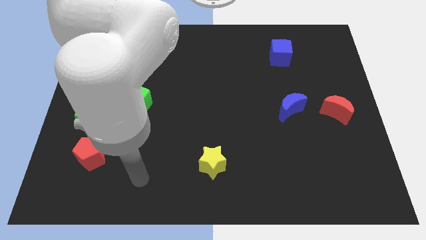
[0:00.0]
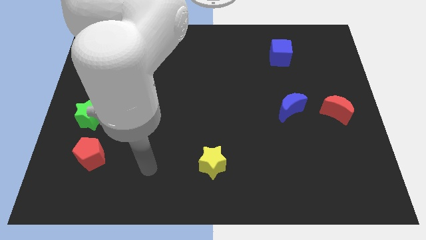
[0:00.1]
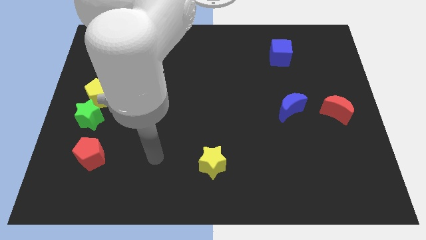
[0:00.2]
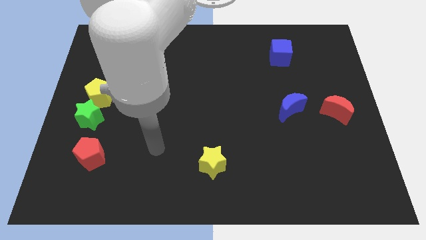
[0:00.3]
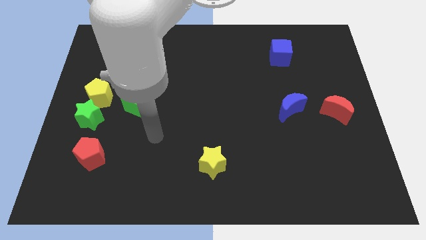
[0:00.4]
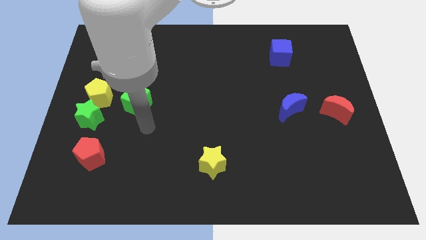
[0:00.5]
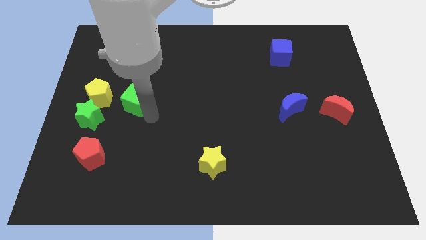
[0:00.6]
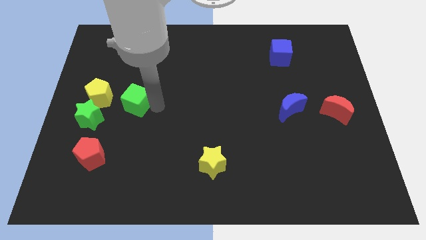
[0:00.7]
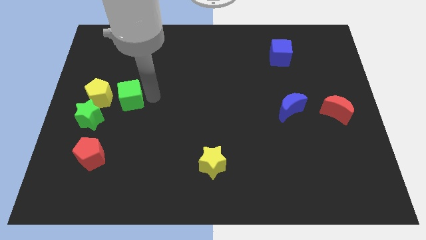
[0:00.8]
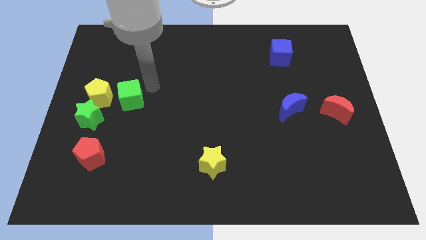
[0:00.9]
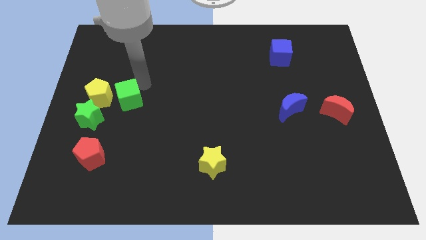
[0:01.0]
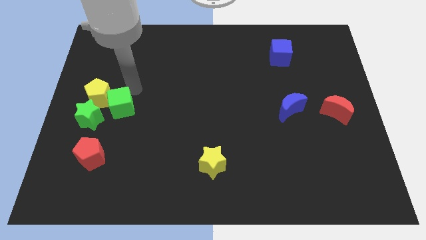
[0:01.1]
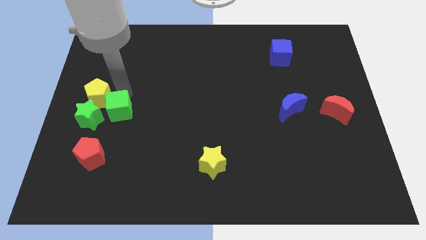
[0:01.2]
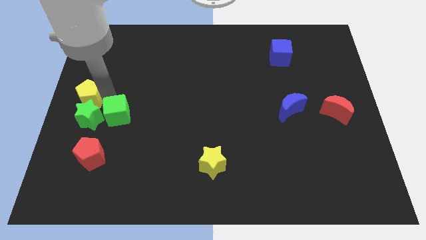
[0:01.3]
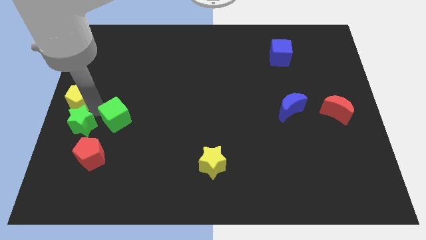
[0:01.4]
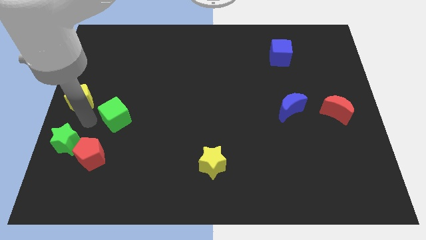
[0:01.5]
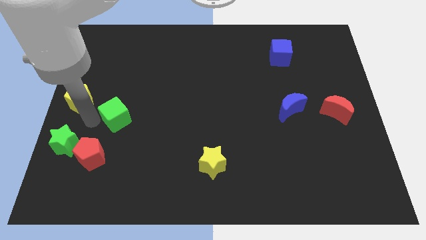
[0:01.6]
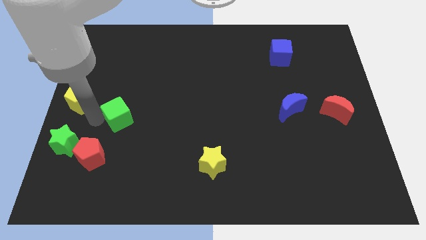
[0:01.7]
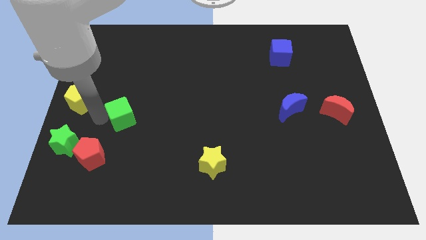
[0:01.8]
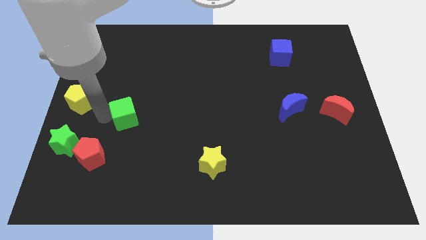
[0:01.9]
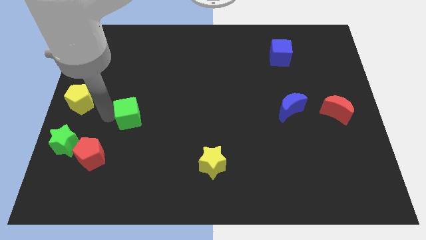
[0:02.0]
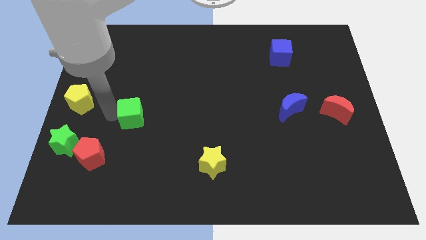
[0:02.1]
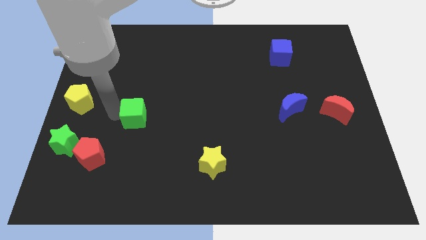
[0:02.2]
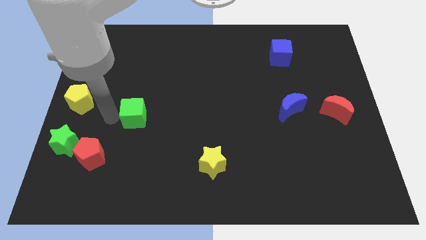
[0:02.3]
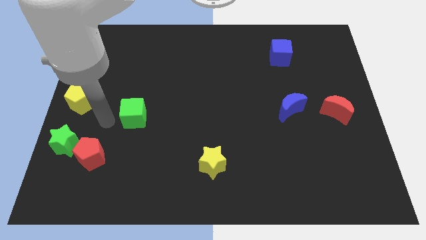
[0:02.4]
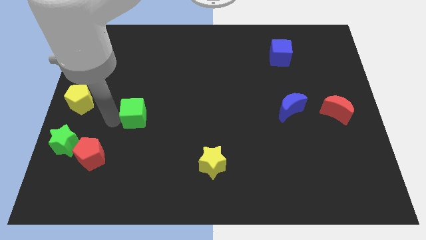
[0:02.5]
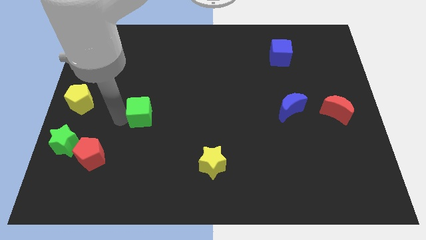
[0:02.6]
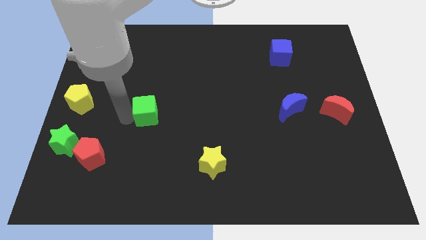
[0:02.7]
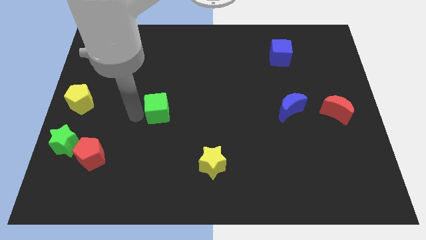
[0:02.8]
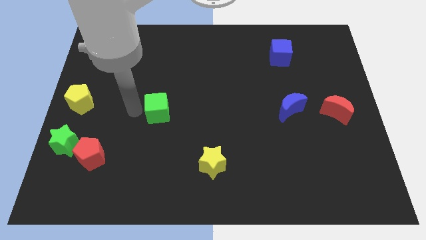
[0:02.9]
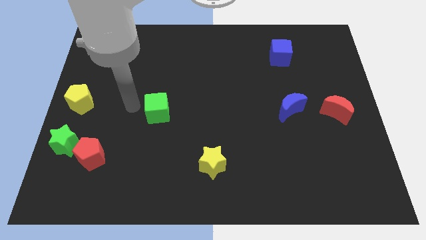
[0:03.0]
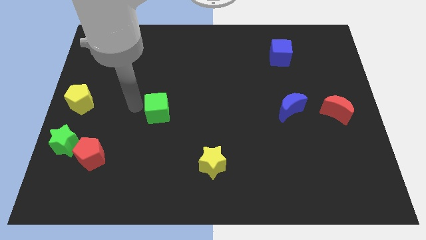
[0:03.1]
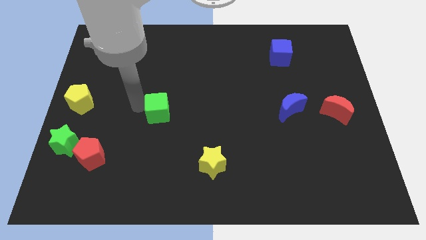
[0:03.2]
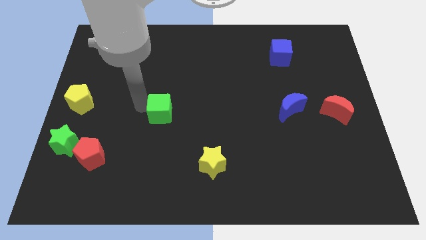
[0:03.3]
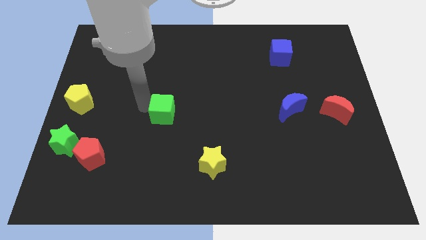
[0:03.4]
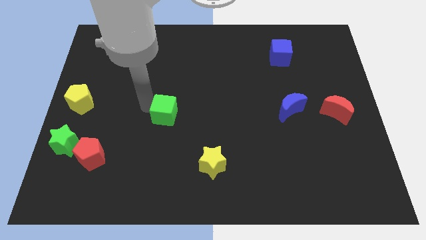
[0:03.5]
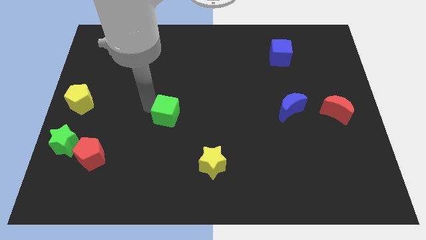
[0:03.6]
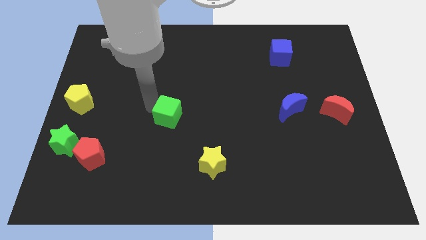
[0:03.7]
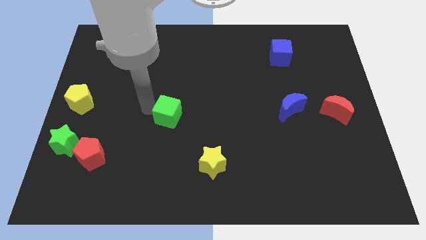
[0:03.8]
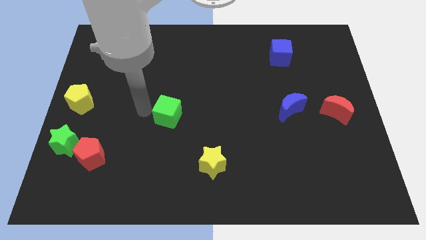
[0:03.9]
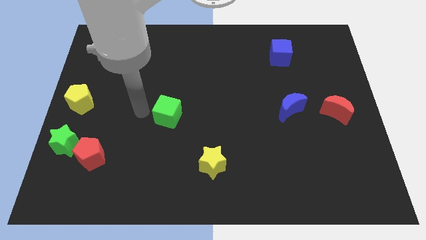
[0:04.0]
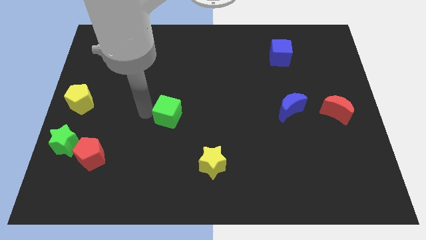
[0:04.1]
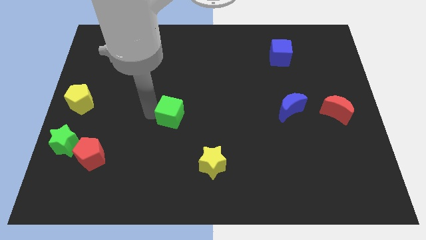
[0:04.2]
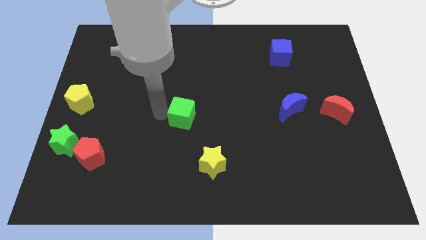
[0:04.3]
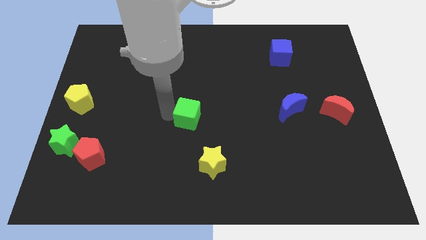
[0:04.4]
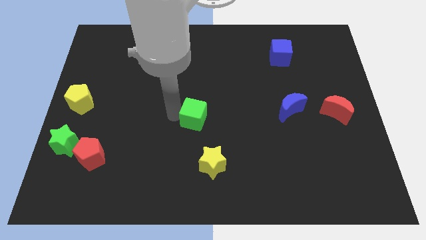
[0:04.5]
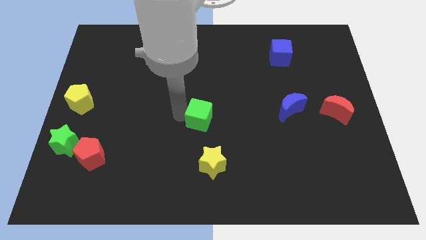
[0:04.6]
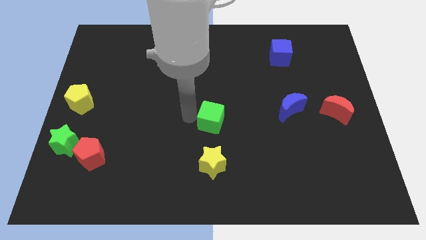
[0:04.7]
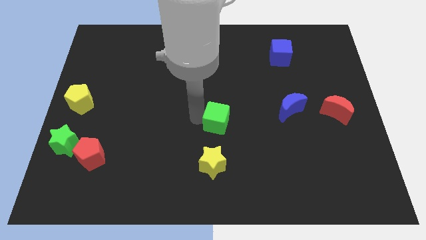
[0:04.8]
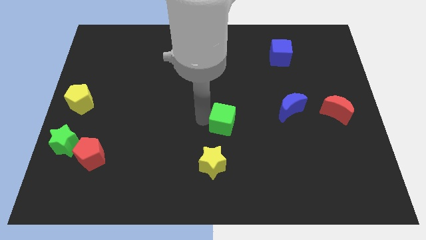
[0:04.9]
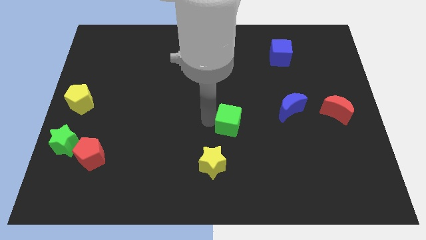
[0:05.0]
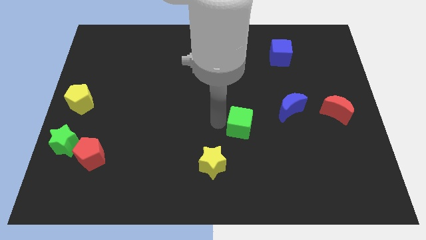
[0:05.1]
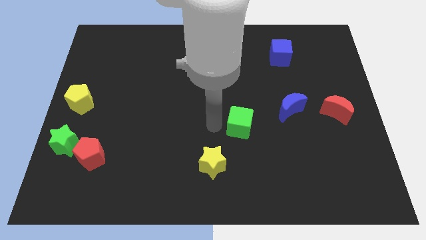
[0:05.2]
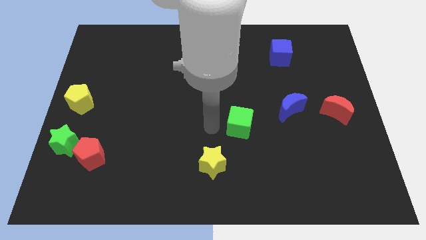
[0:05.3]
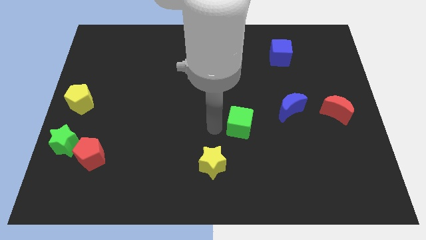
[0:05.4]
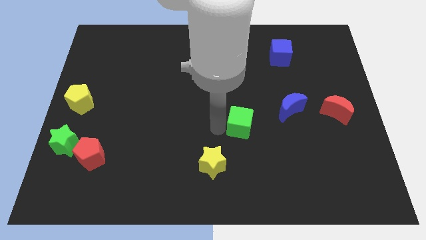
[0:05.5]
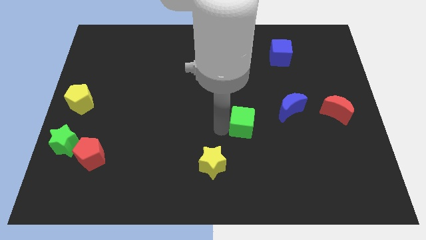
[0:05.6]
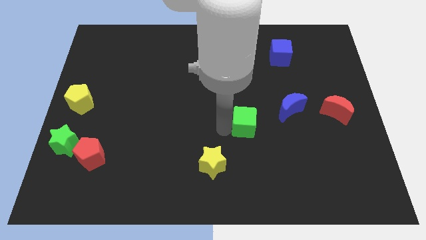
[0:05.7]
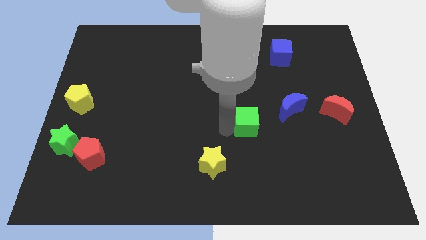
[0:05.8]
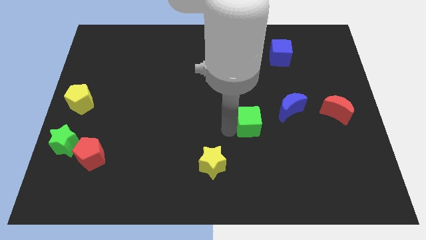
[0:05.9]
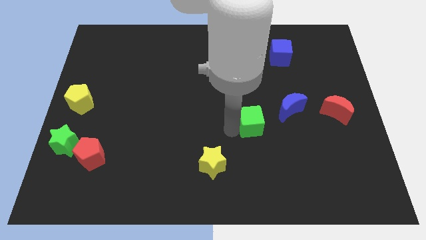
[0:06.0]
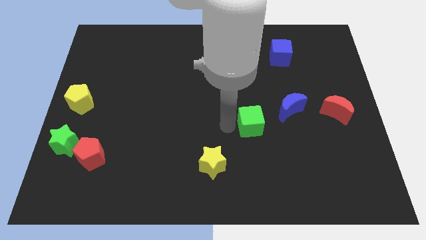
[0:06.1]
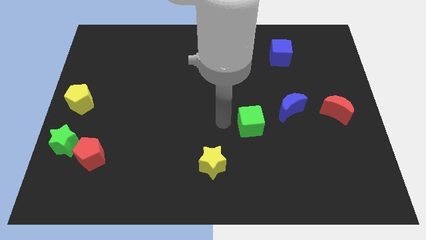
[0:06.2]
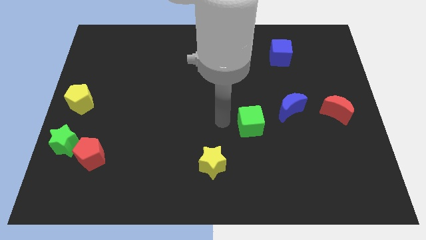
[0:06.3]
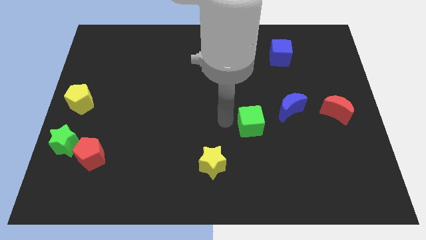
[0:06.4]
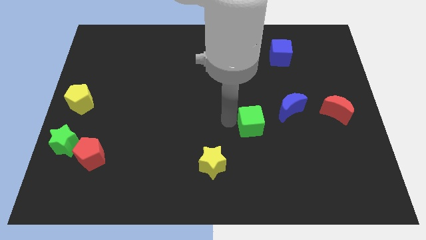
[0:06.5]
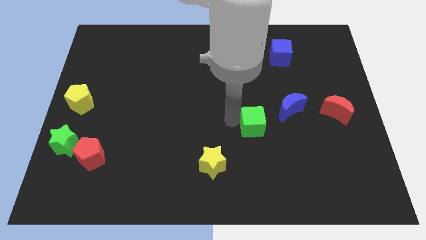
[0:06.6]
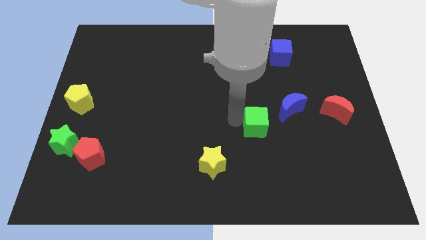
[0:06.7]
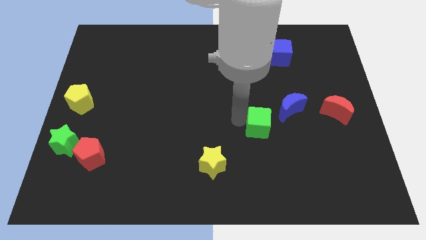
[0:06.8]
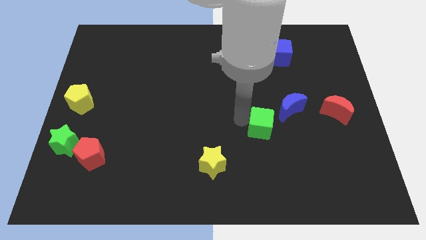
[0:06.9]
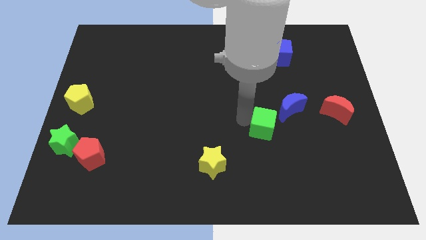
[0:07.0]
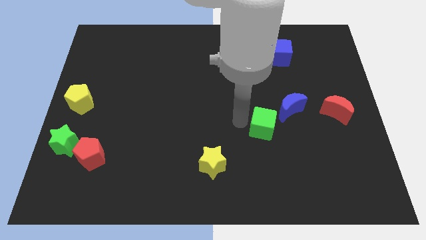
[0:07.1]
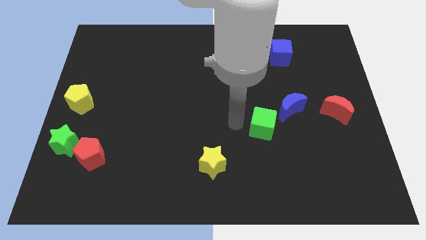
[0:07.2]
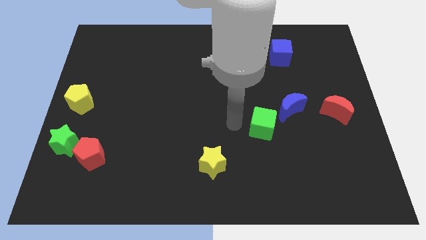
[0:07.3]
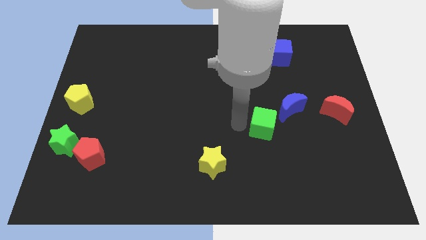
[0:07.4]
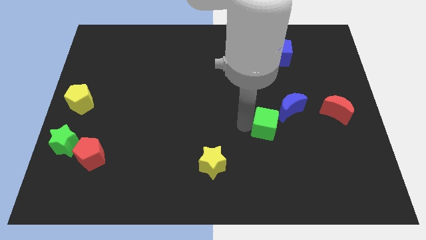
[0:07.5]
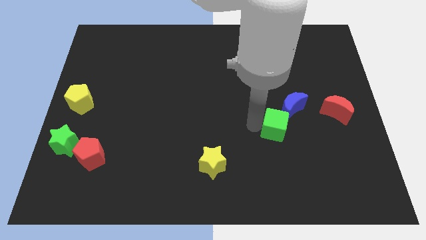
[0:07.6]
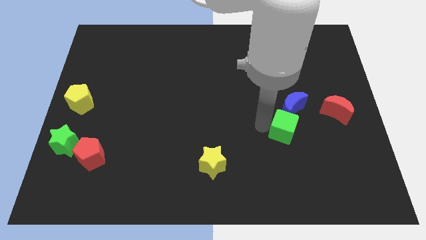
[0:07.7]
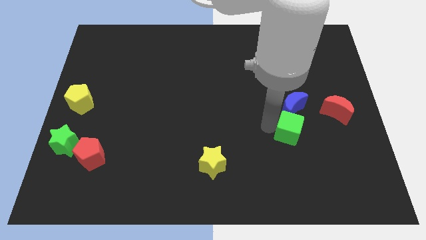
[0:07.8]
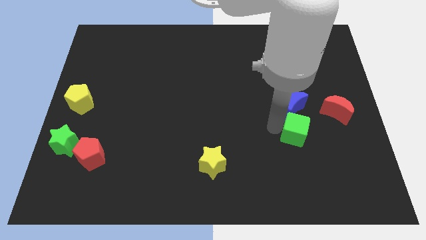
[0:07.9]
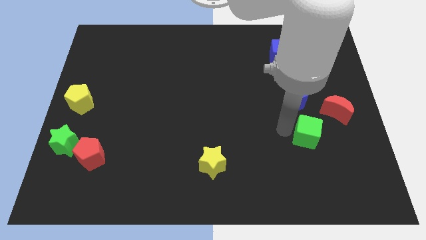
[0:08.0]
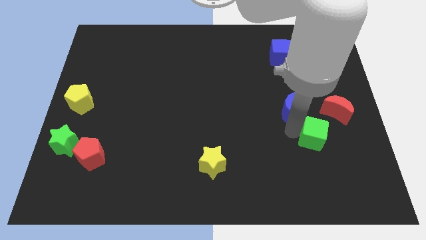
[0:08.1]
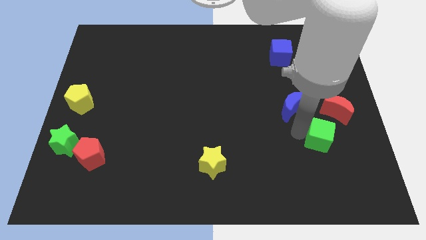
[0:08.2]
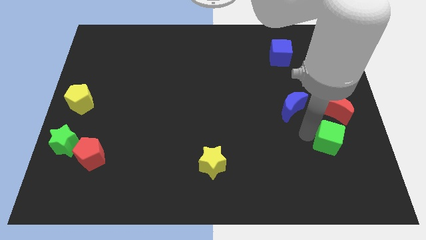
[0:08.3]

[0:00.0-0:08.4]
push the green cube to the bottom of the red moon
